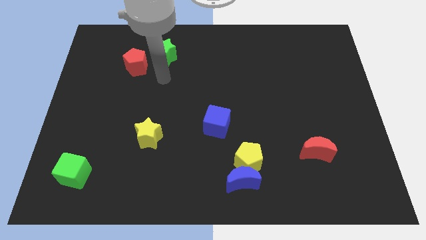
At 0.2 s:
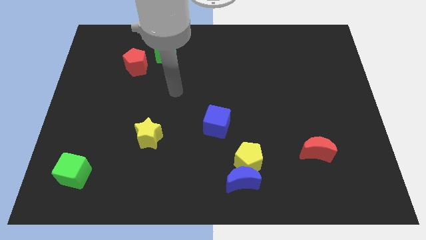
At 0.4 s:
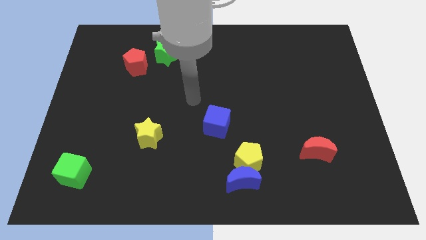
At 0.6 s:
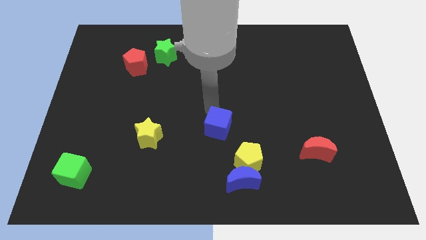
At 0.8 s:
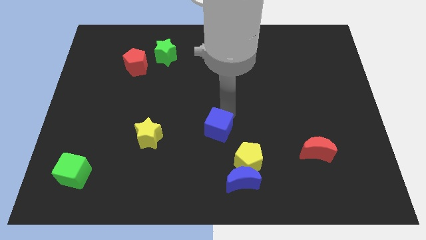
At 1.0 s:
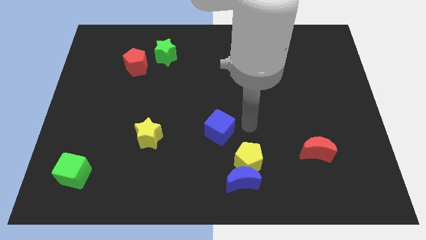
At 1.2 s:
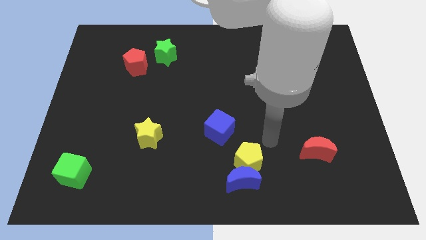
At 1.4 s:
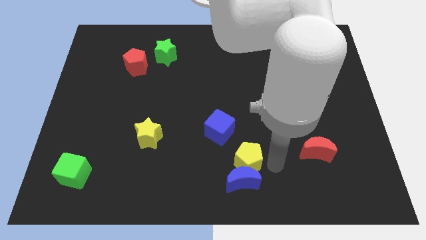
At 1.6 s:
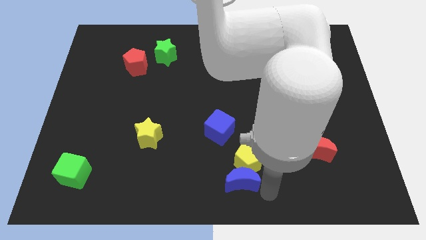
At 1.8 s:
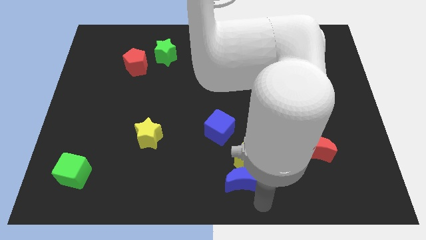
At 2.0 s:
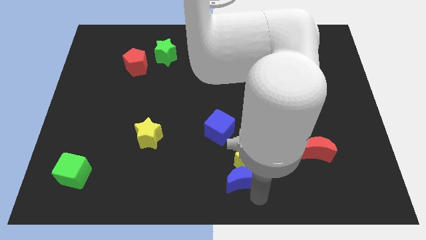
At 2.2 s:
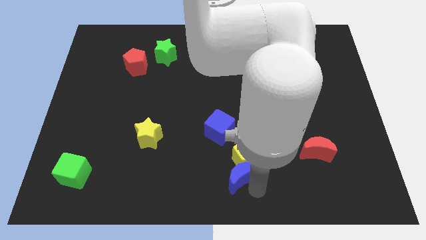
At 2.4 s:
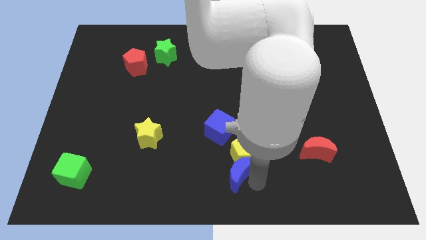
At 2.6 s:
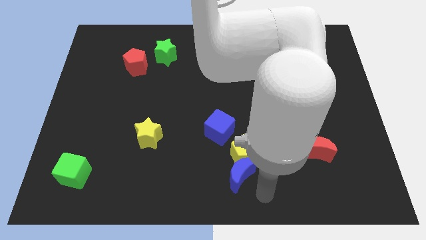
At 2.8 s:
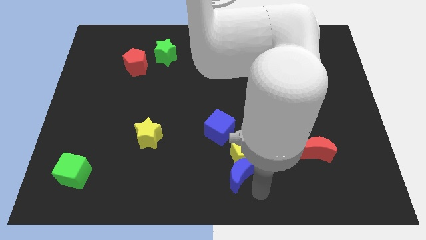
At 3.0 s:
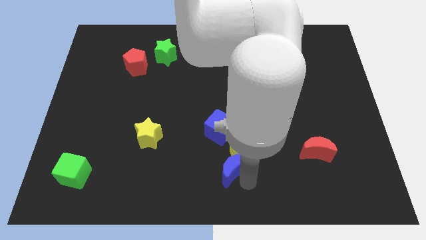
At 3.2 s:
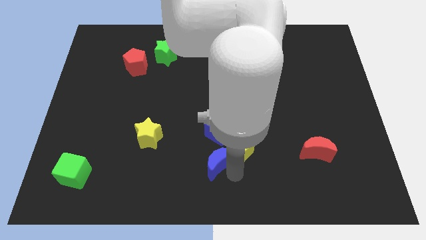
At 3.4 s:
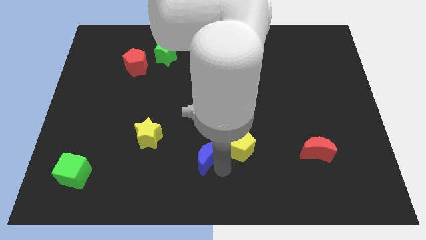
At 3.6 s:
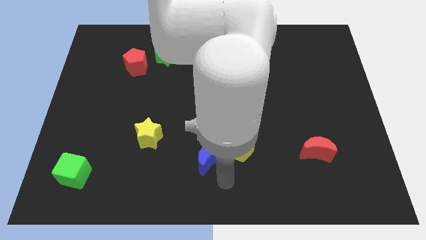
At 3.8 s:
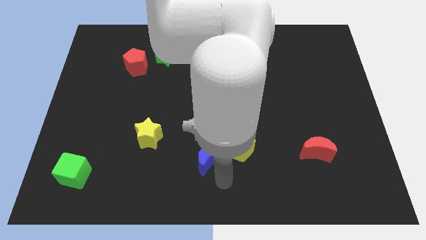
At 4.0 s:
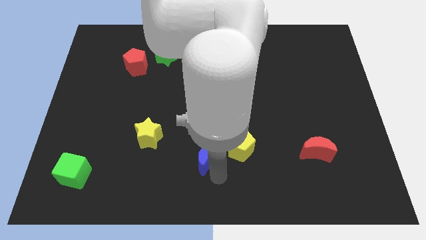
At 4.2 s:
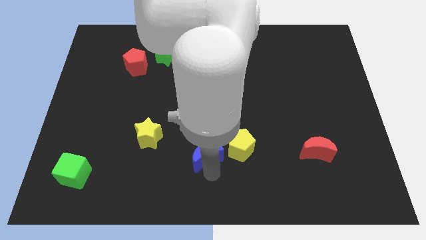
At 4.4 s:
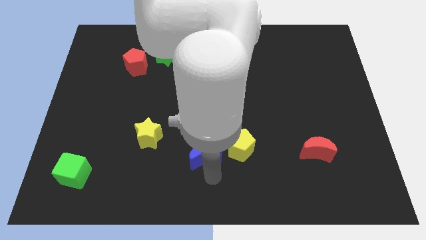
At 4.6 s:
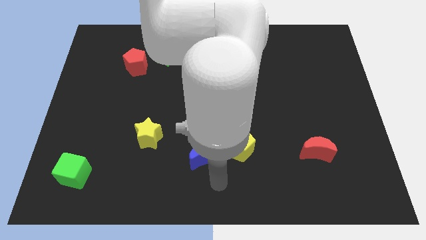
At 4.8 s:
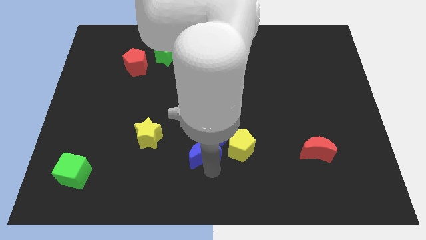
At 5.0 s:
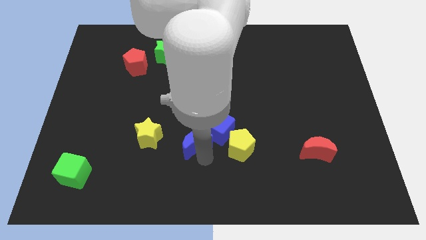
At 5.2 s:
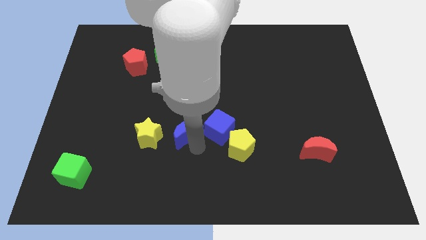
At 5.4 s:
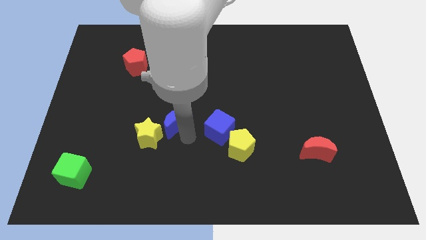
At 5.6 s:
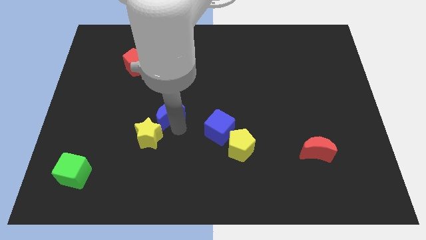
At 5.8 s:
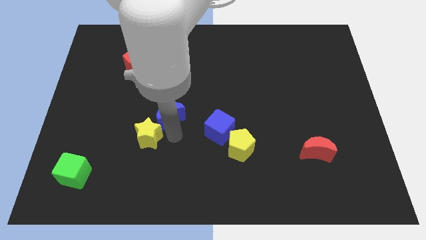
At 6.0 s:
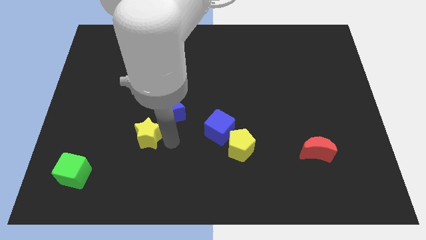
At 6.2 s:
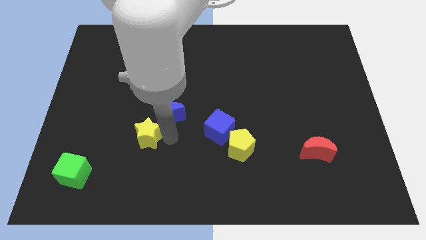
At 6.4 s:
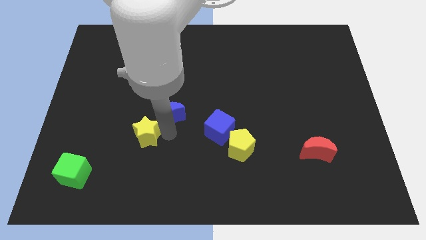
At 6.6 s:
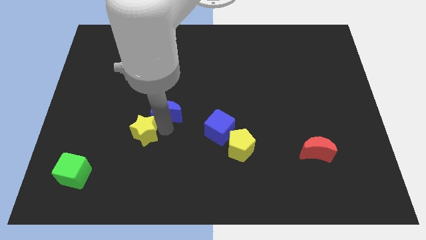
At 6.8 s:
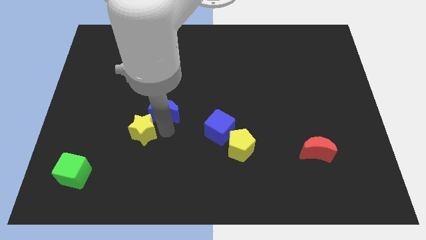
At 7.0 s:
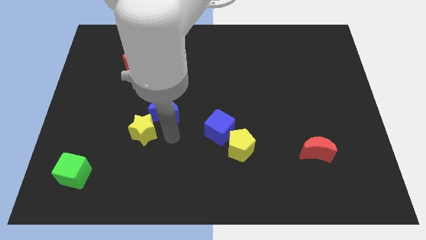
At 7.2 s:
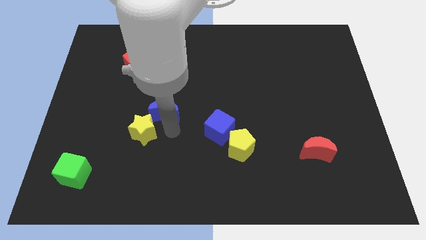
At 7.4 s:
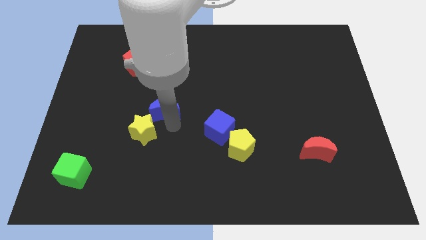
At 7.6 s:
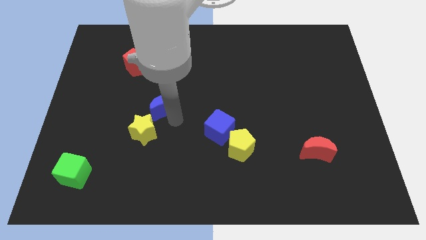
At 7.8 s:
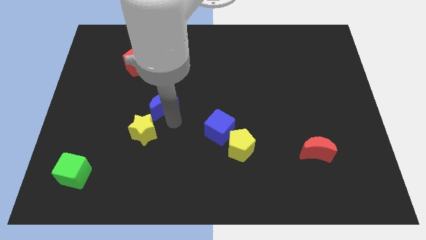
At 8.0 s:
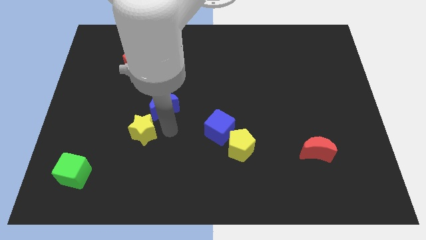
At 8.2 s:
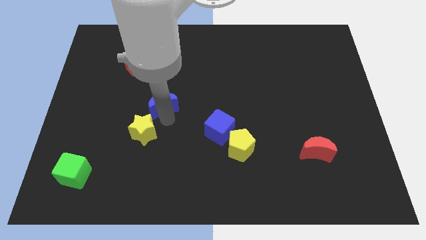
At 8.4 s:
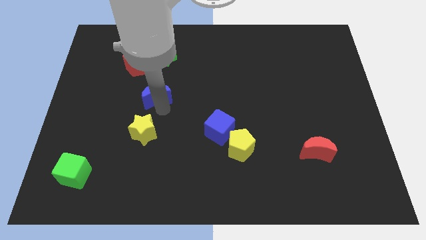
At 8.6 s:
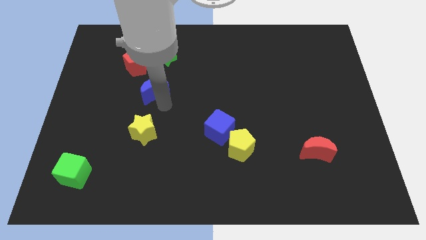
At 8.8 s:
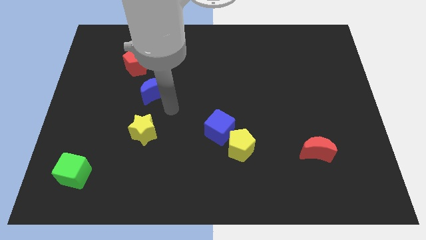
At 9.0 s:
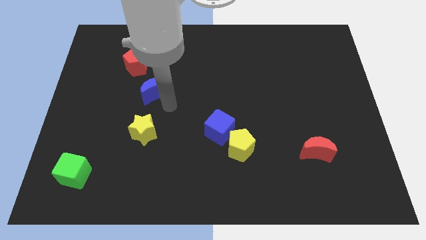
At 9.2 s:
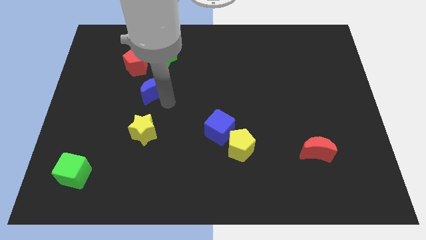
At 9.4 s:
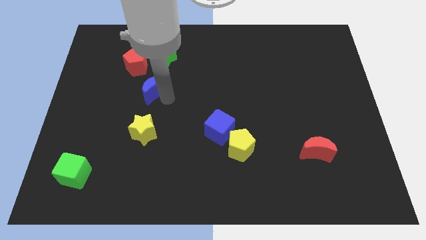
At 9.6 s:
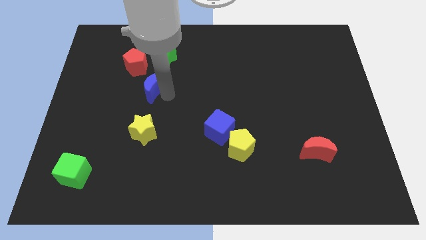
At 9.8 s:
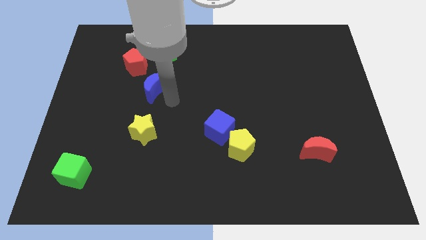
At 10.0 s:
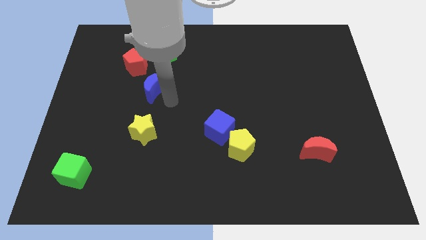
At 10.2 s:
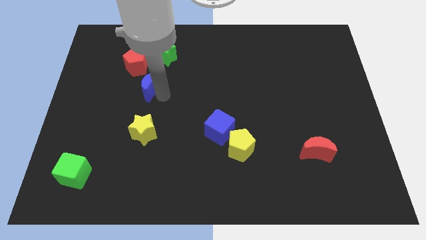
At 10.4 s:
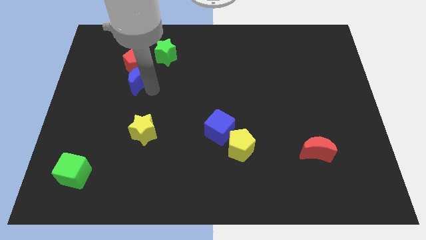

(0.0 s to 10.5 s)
slide the blue moon to the red pentagon

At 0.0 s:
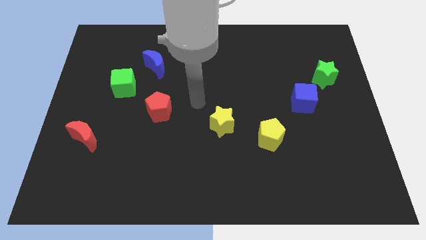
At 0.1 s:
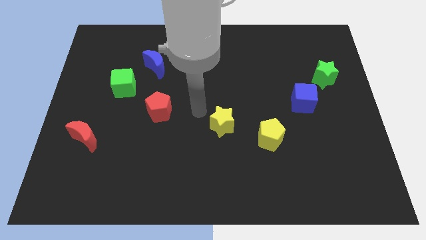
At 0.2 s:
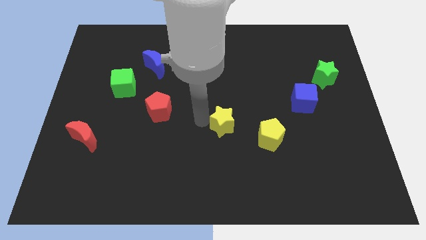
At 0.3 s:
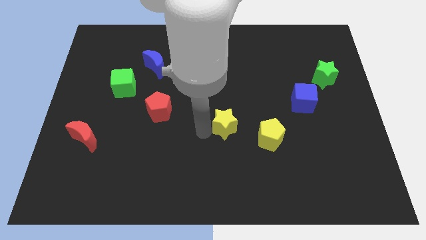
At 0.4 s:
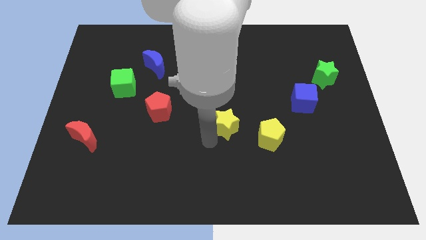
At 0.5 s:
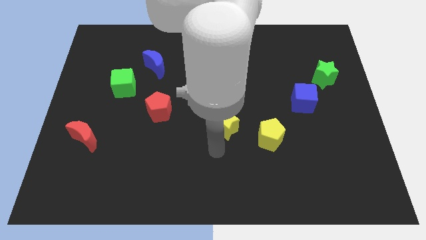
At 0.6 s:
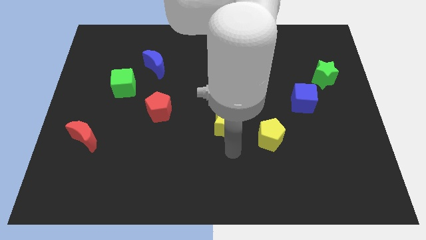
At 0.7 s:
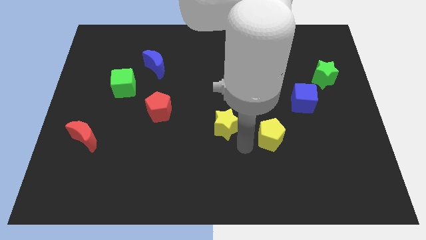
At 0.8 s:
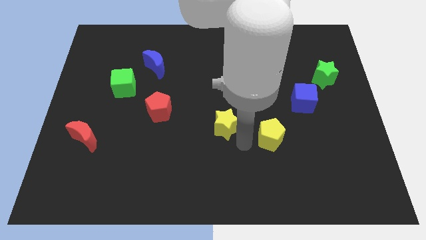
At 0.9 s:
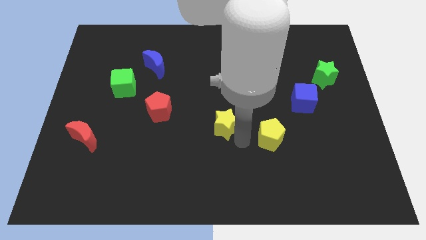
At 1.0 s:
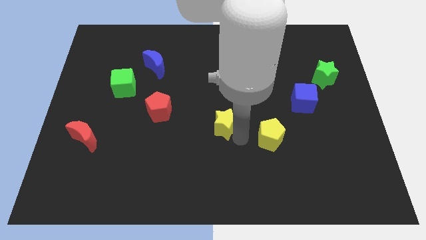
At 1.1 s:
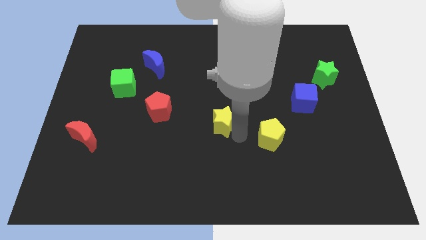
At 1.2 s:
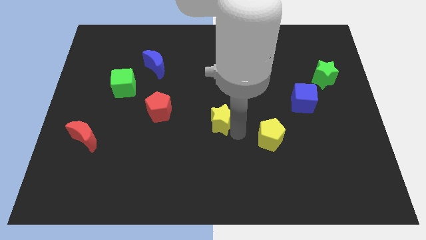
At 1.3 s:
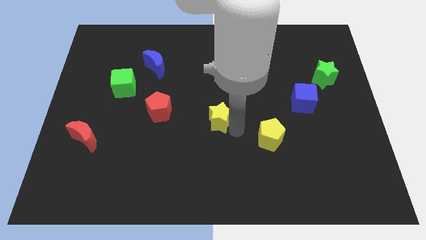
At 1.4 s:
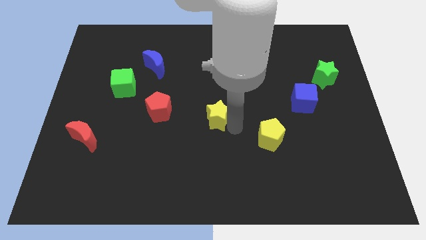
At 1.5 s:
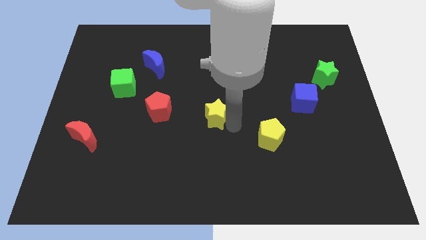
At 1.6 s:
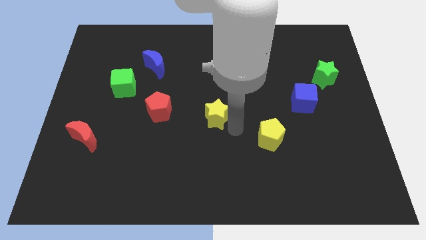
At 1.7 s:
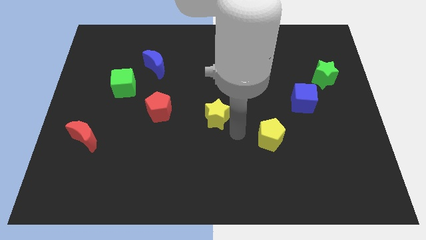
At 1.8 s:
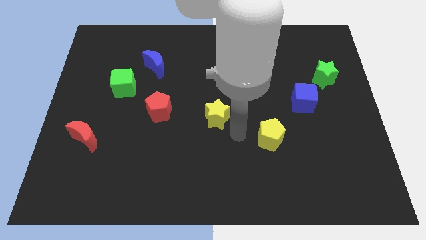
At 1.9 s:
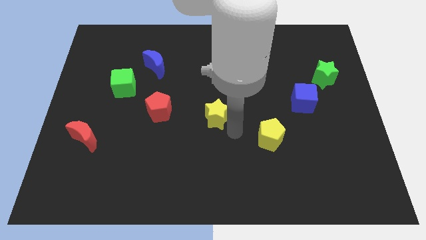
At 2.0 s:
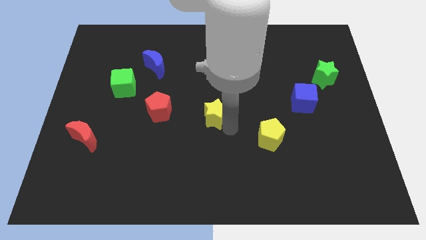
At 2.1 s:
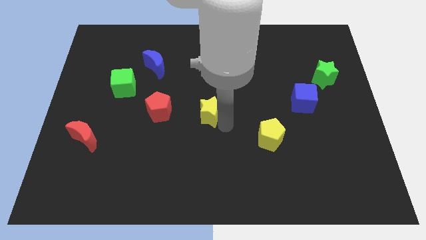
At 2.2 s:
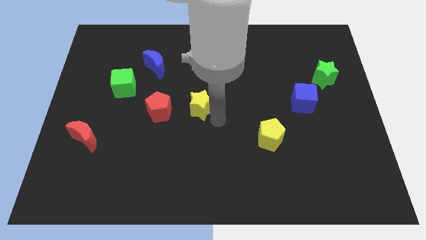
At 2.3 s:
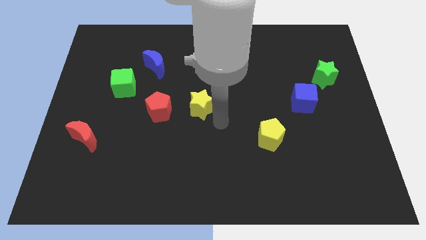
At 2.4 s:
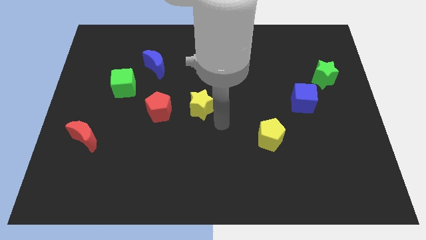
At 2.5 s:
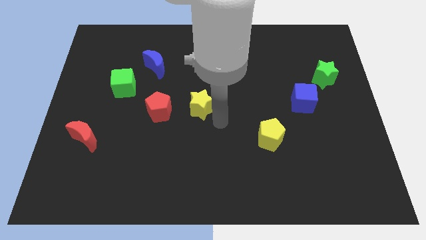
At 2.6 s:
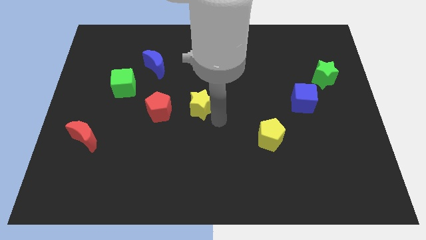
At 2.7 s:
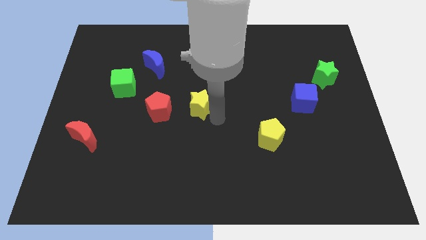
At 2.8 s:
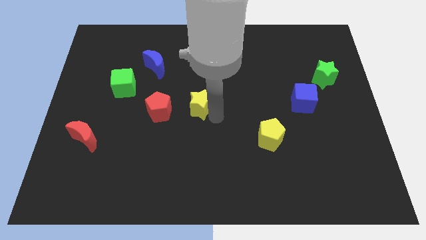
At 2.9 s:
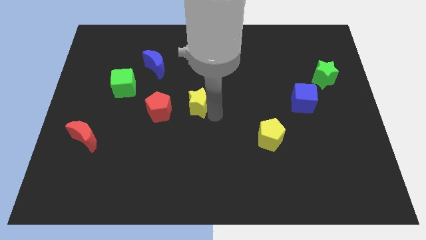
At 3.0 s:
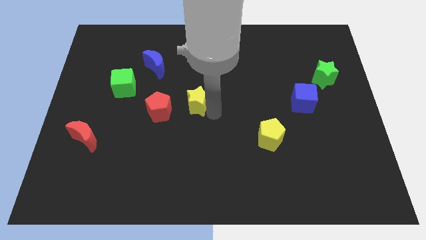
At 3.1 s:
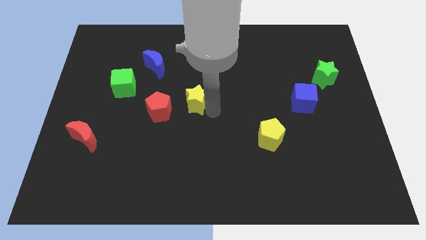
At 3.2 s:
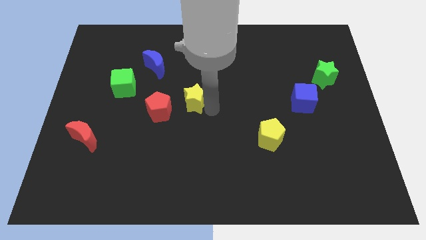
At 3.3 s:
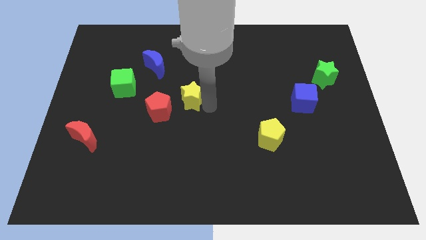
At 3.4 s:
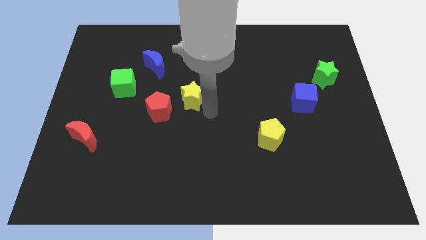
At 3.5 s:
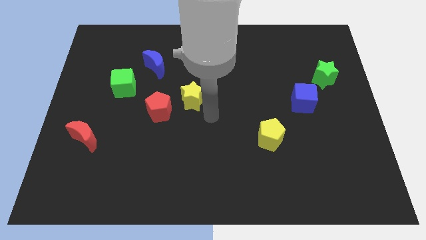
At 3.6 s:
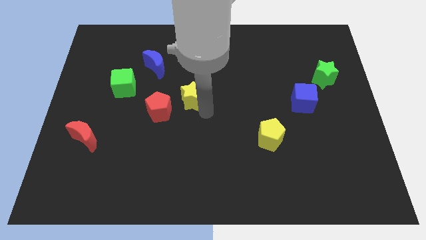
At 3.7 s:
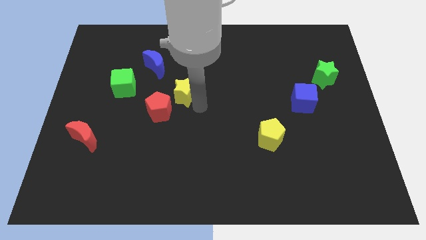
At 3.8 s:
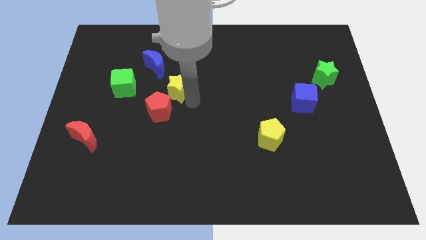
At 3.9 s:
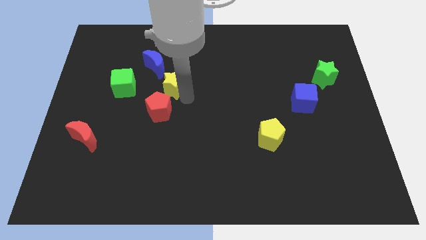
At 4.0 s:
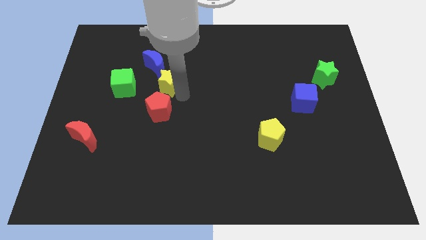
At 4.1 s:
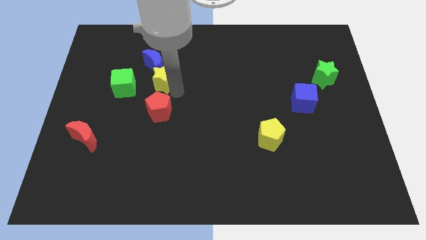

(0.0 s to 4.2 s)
slide the yellow star to the blue moon
